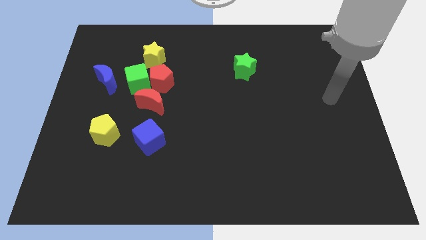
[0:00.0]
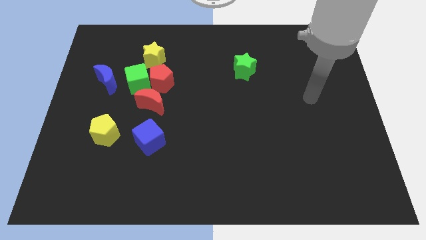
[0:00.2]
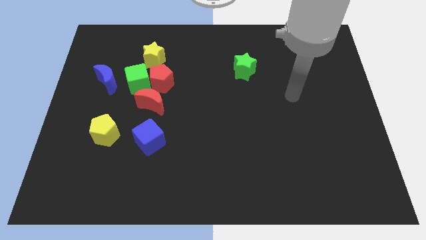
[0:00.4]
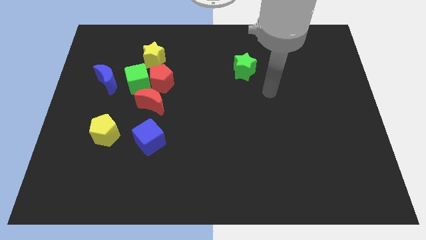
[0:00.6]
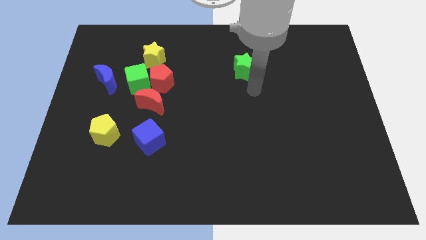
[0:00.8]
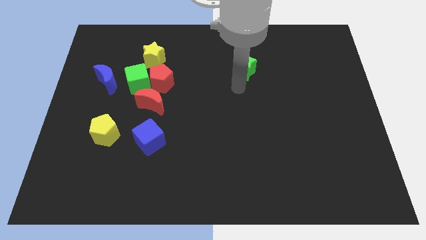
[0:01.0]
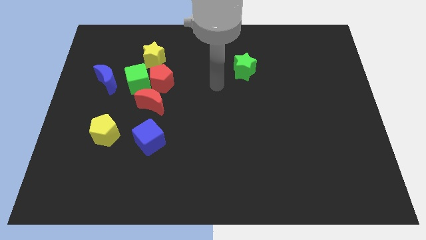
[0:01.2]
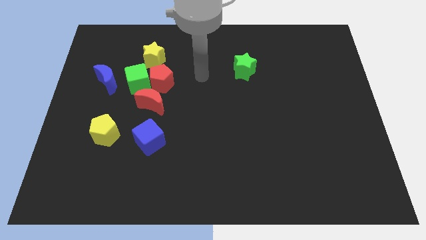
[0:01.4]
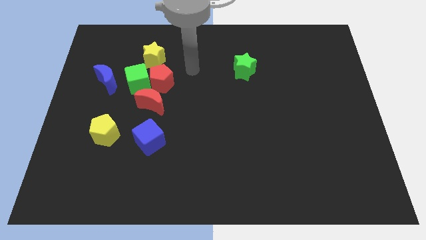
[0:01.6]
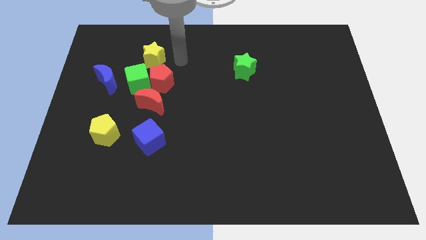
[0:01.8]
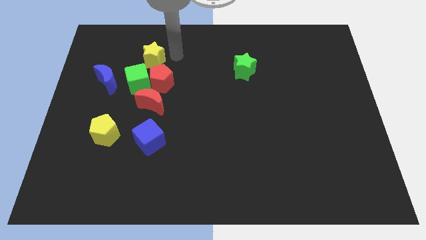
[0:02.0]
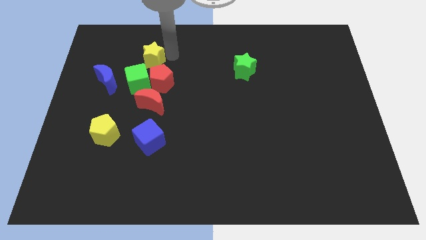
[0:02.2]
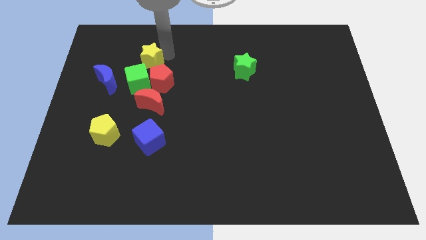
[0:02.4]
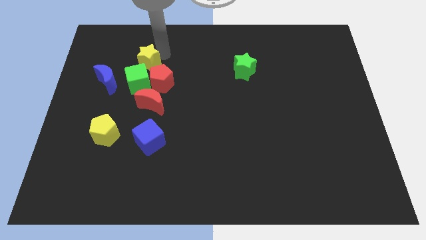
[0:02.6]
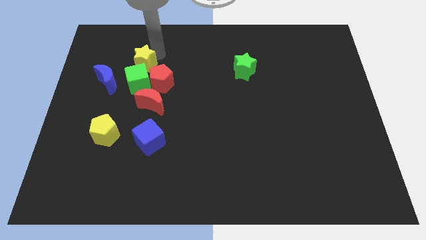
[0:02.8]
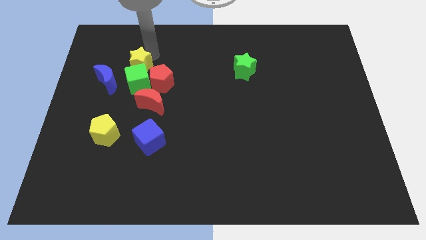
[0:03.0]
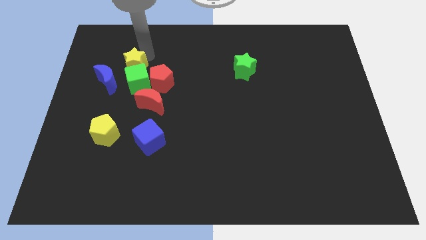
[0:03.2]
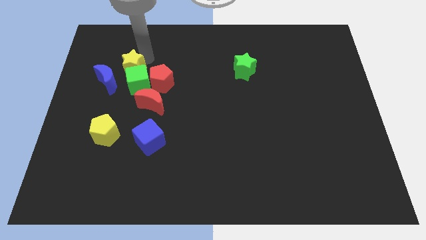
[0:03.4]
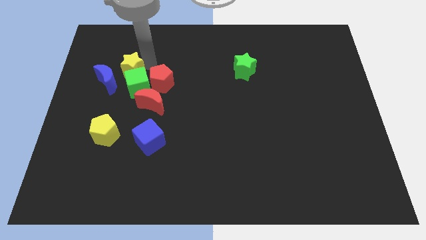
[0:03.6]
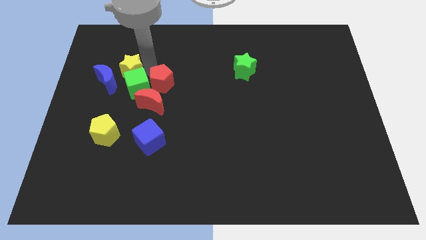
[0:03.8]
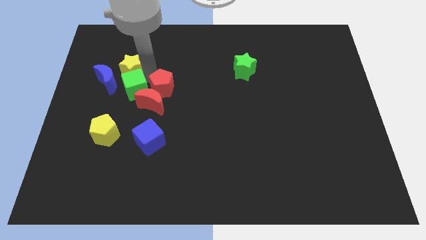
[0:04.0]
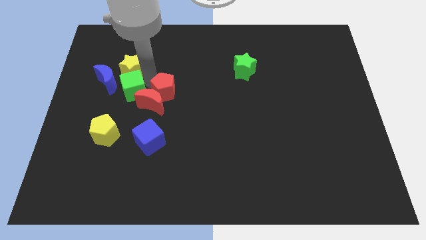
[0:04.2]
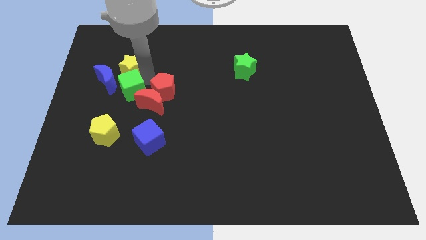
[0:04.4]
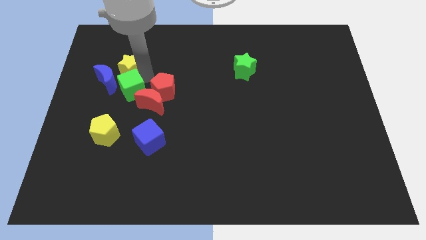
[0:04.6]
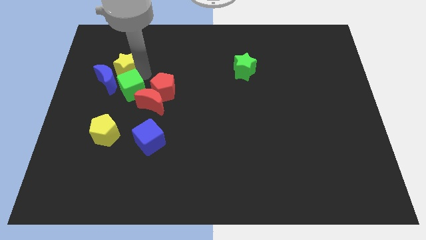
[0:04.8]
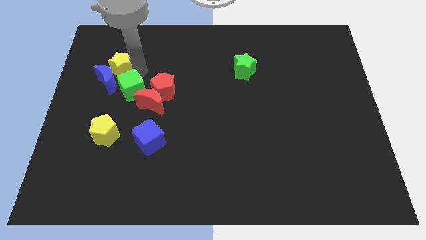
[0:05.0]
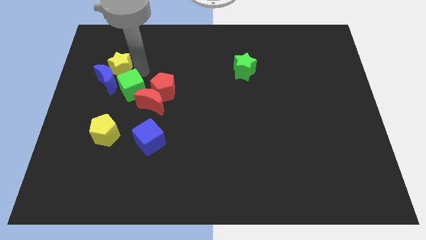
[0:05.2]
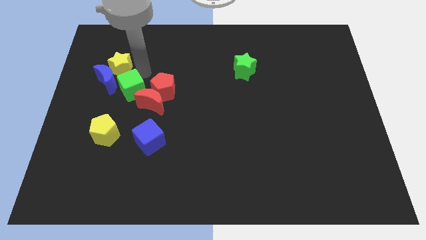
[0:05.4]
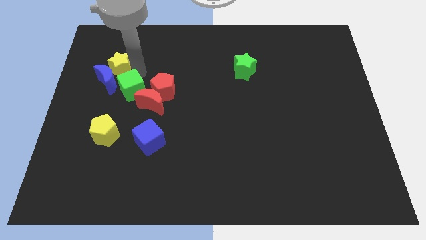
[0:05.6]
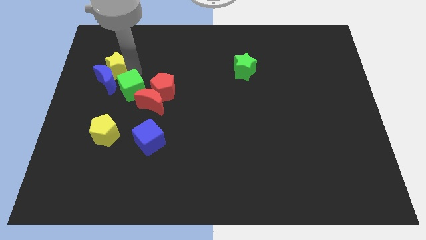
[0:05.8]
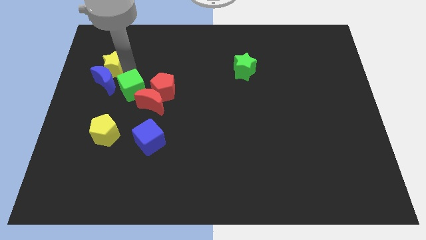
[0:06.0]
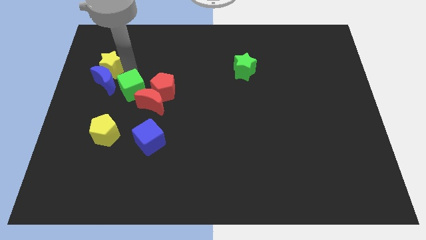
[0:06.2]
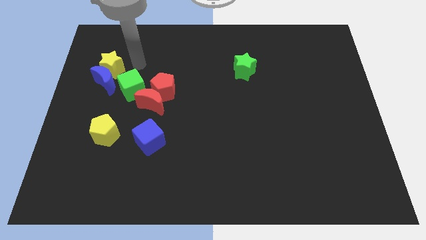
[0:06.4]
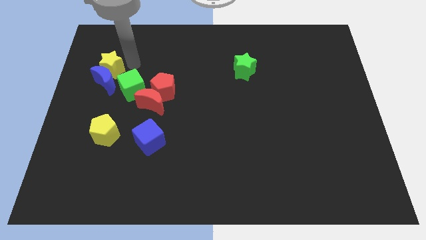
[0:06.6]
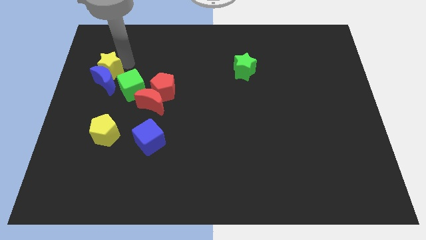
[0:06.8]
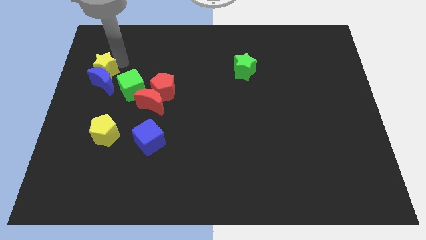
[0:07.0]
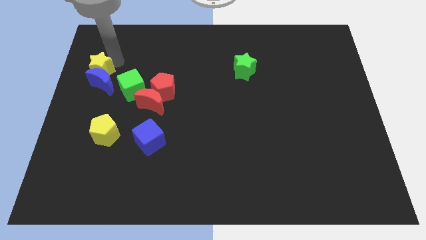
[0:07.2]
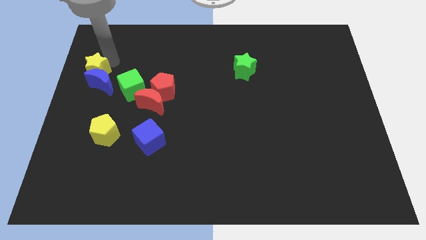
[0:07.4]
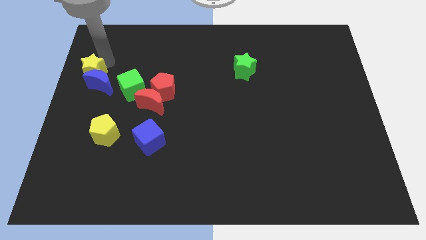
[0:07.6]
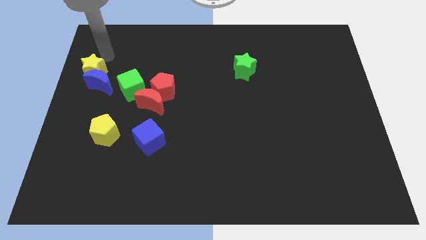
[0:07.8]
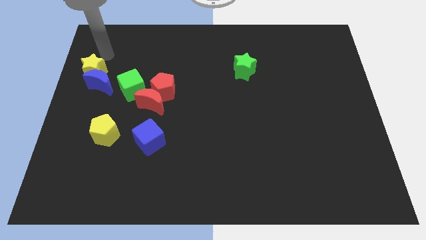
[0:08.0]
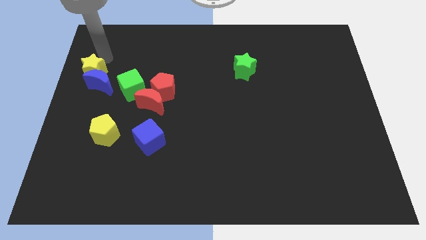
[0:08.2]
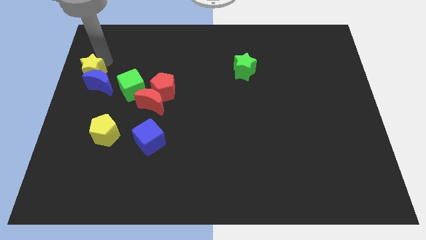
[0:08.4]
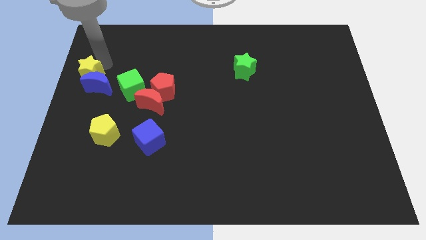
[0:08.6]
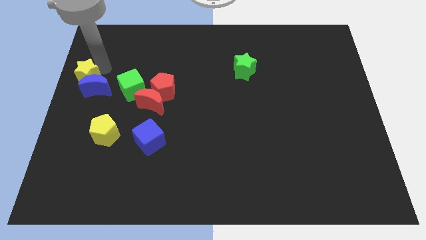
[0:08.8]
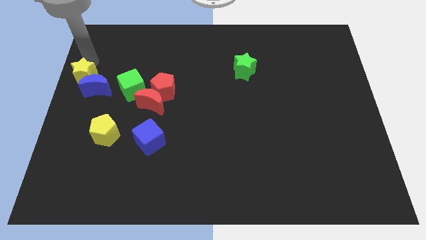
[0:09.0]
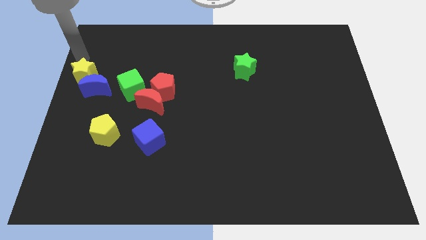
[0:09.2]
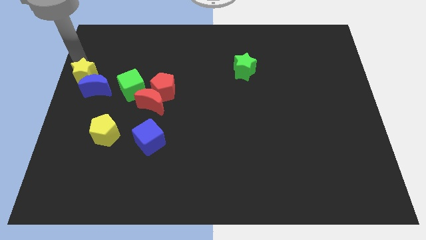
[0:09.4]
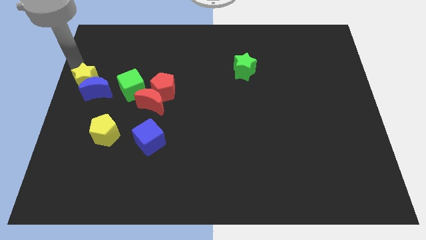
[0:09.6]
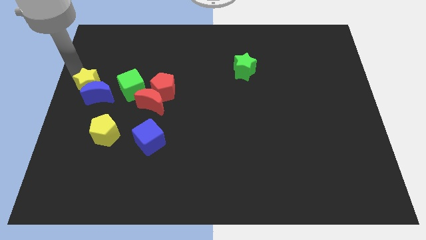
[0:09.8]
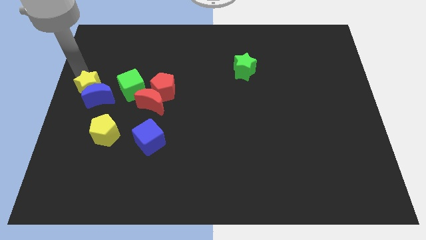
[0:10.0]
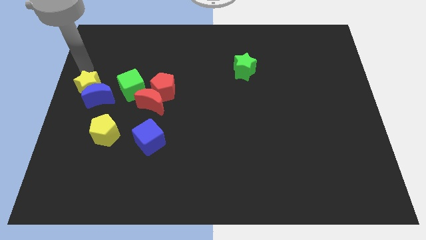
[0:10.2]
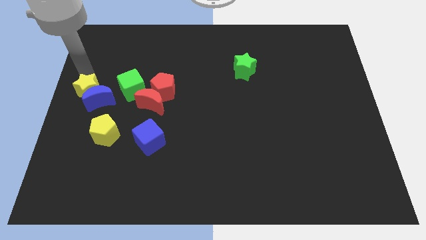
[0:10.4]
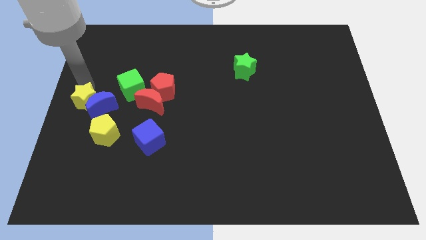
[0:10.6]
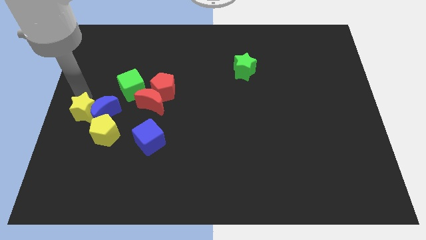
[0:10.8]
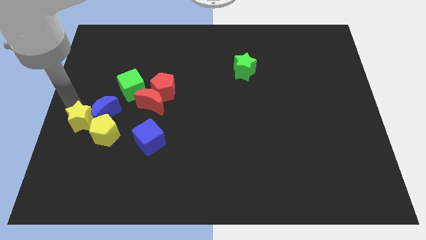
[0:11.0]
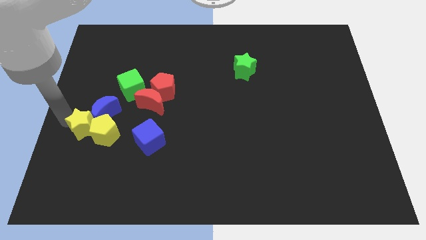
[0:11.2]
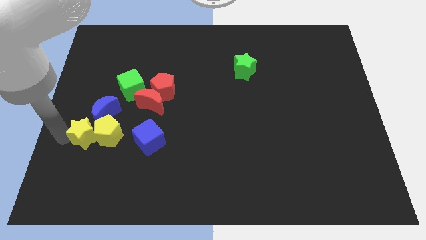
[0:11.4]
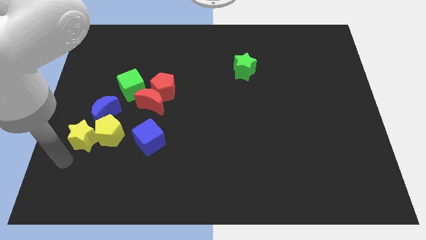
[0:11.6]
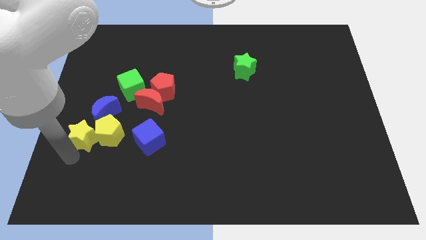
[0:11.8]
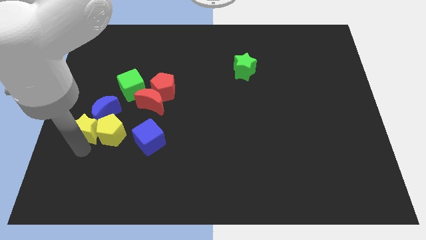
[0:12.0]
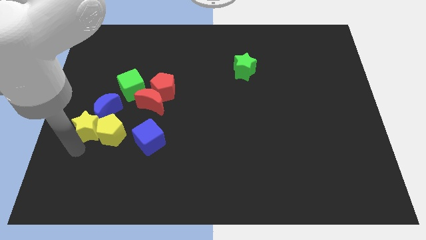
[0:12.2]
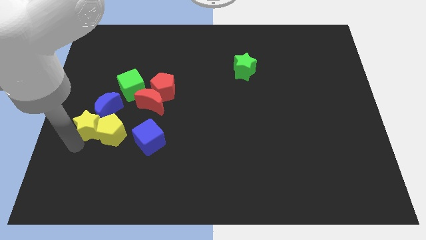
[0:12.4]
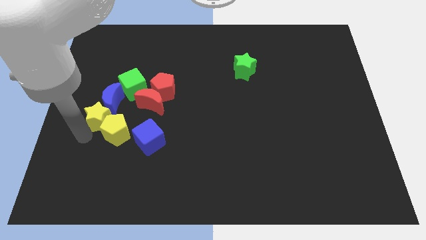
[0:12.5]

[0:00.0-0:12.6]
slide the yellow star to the top of the yellow pentagon
